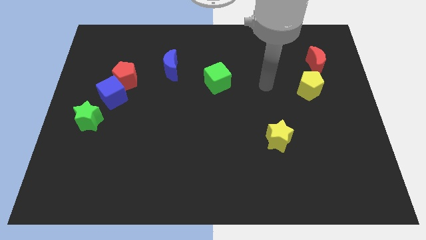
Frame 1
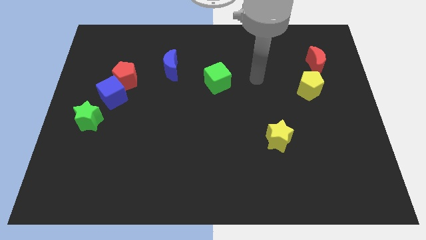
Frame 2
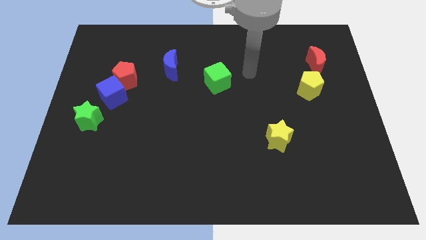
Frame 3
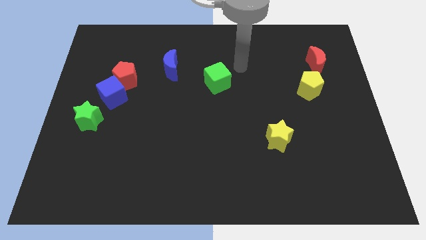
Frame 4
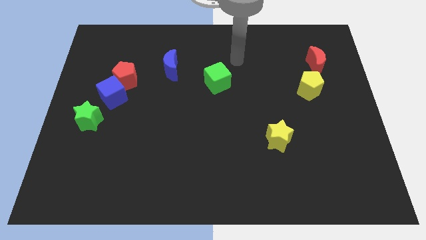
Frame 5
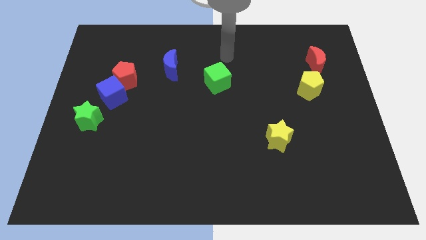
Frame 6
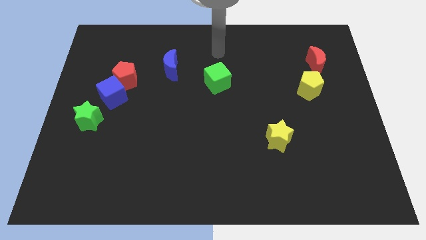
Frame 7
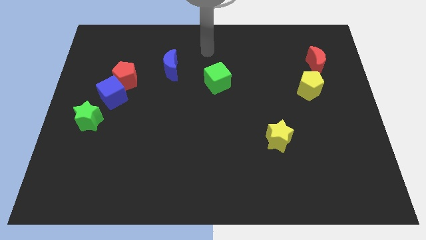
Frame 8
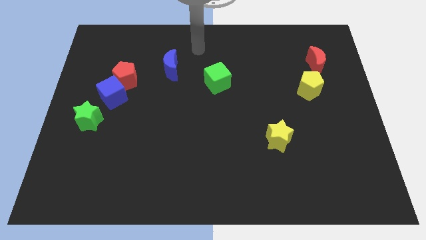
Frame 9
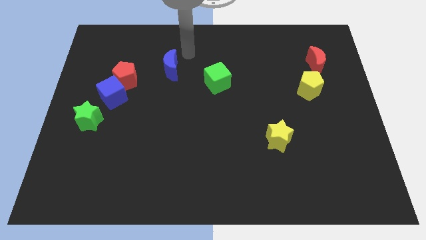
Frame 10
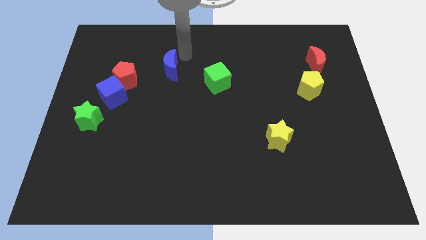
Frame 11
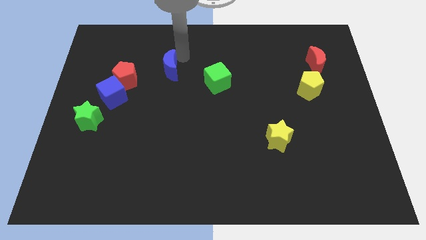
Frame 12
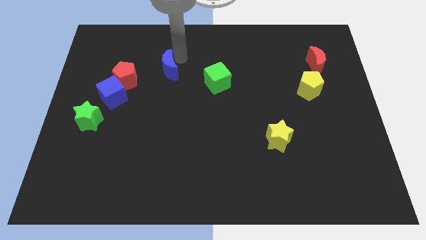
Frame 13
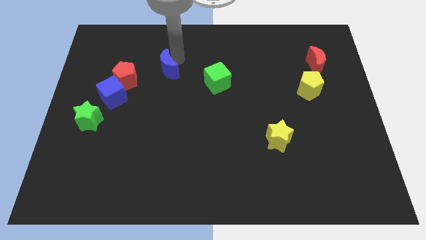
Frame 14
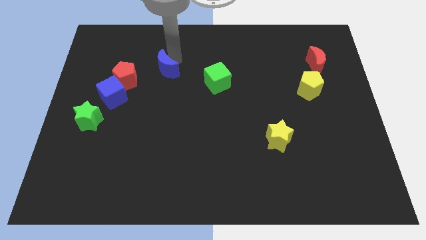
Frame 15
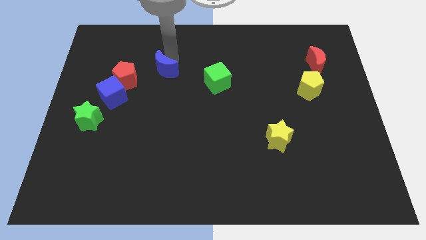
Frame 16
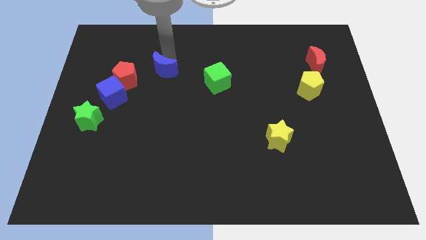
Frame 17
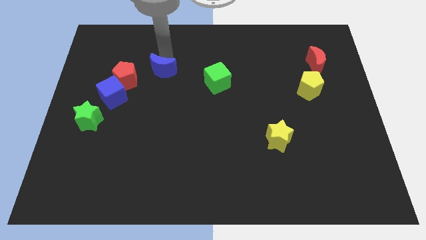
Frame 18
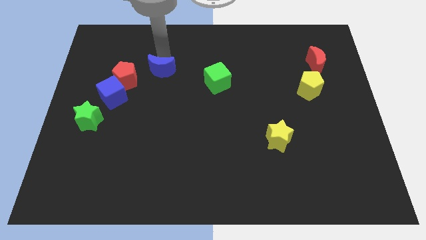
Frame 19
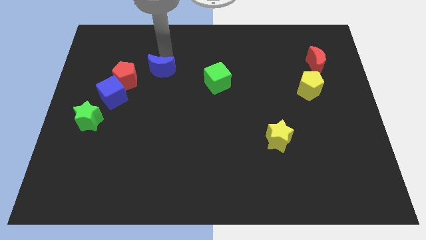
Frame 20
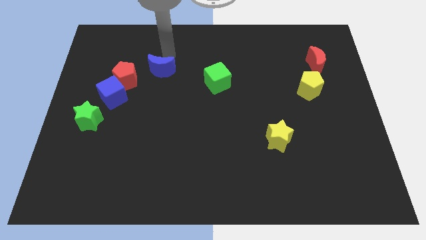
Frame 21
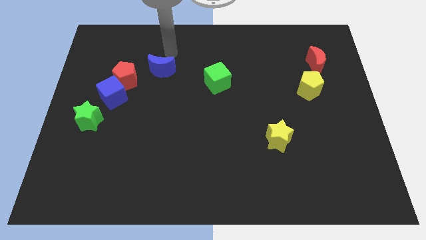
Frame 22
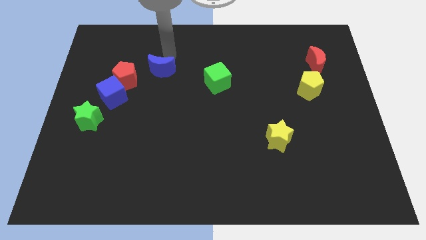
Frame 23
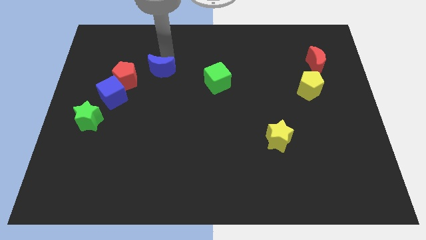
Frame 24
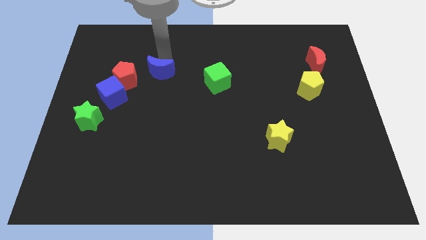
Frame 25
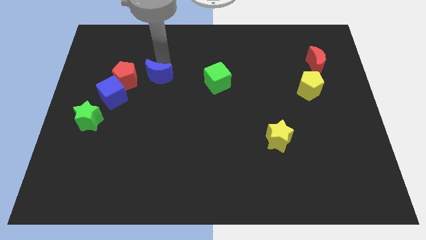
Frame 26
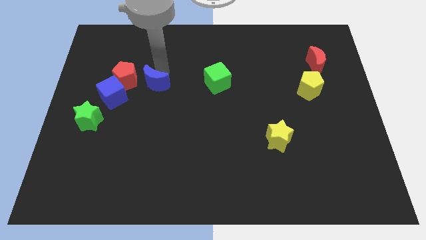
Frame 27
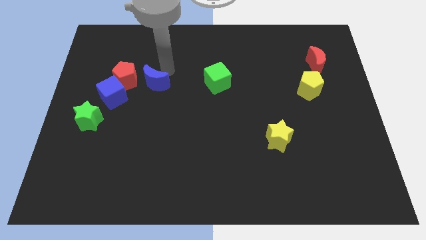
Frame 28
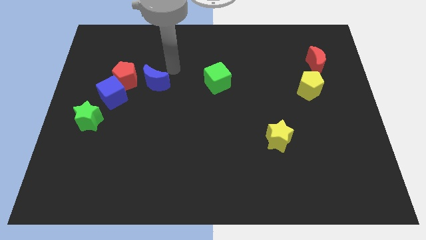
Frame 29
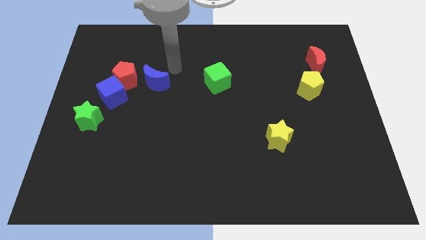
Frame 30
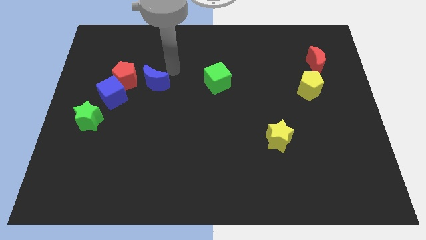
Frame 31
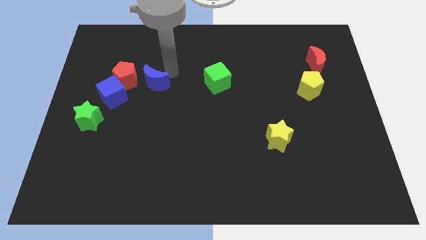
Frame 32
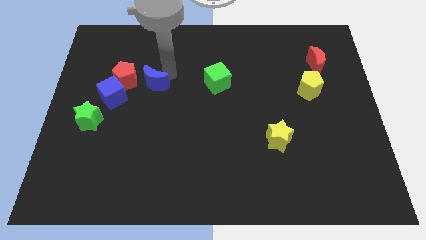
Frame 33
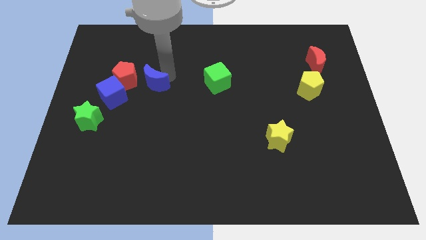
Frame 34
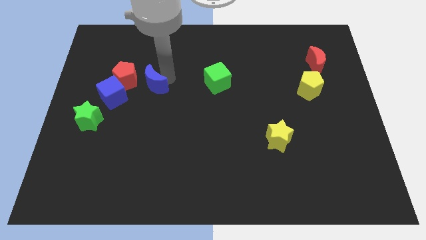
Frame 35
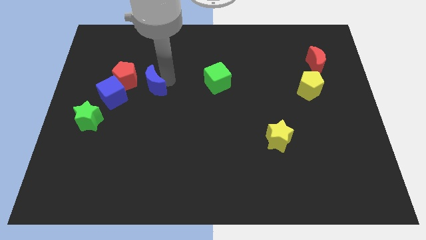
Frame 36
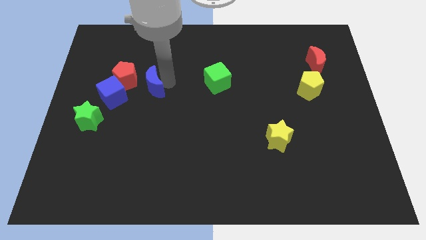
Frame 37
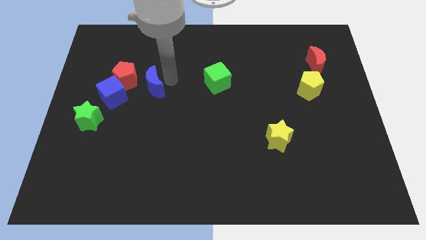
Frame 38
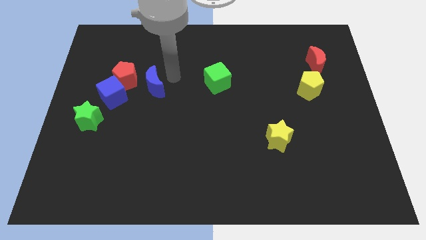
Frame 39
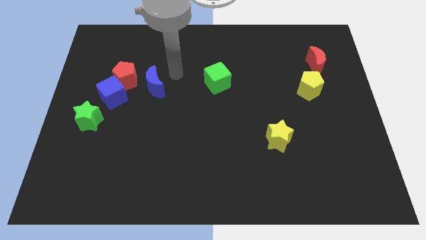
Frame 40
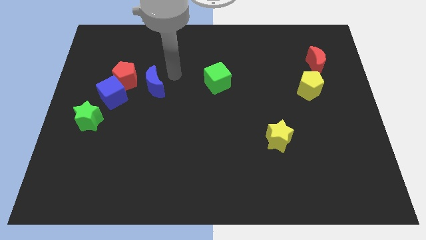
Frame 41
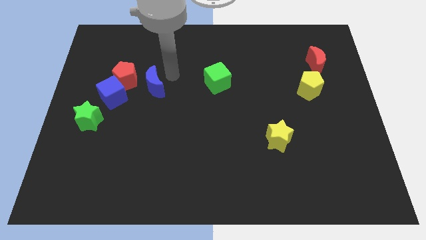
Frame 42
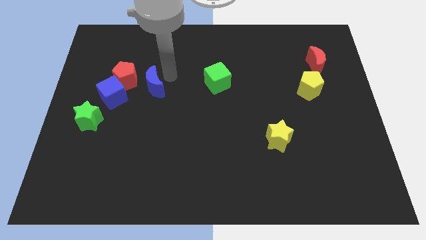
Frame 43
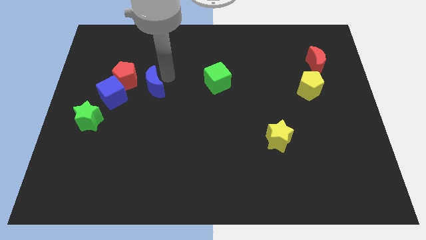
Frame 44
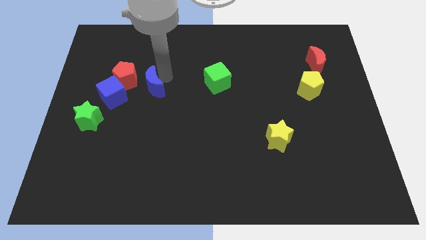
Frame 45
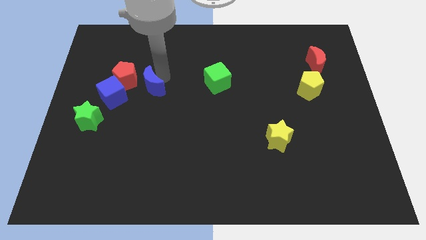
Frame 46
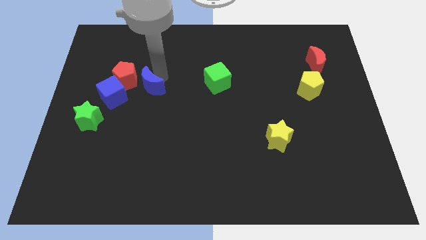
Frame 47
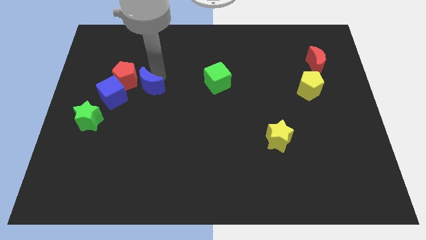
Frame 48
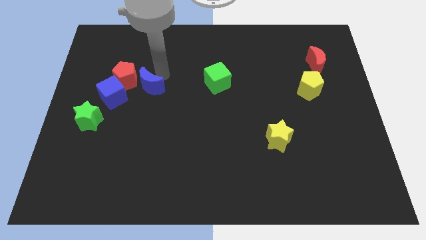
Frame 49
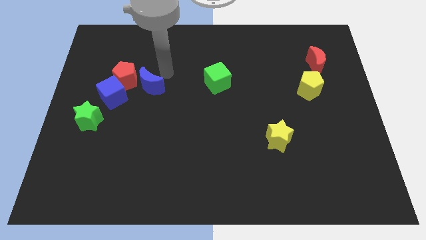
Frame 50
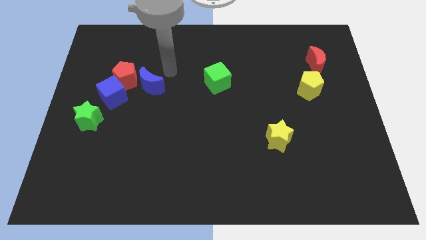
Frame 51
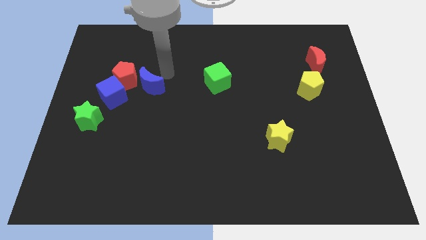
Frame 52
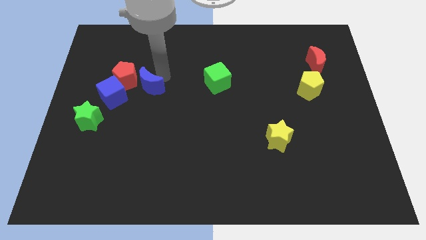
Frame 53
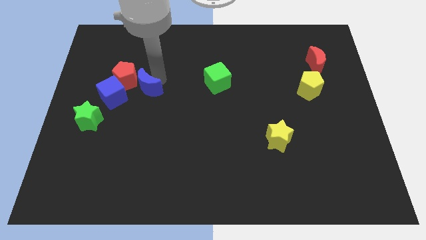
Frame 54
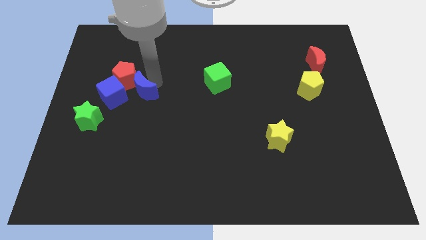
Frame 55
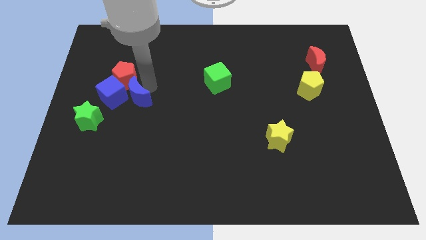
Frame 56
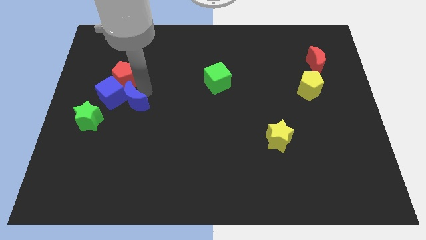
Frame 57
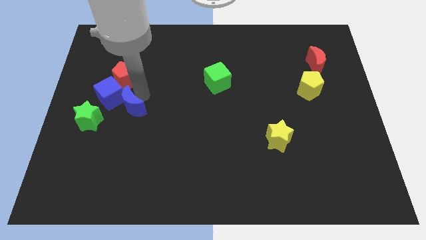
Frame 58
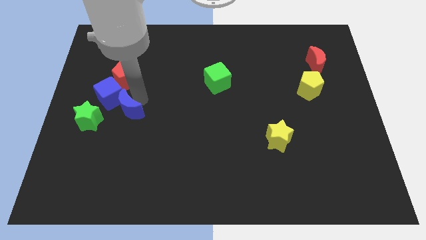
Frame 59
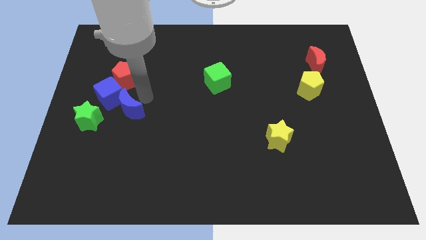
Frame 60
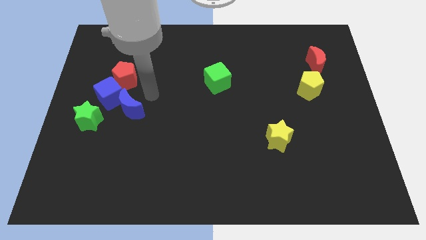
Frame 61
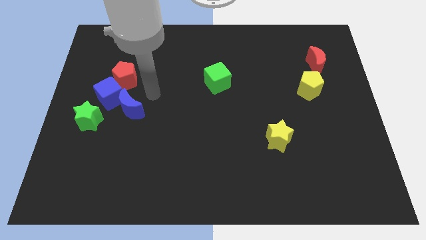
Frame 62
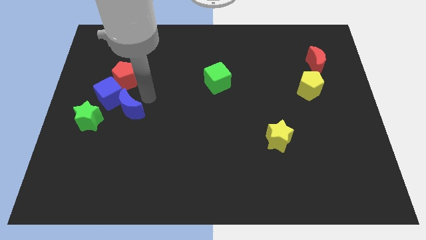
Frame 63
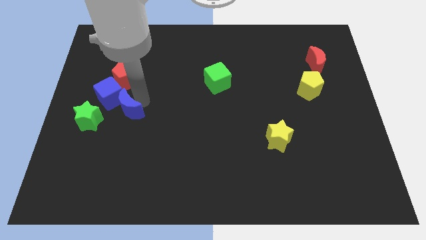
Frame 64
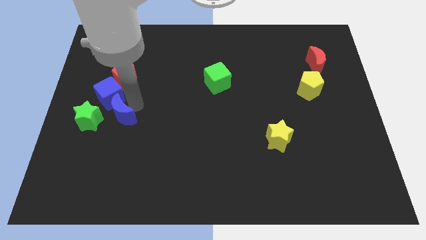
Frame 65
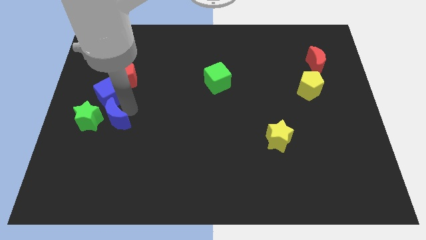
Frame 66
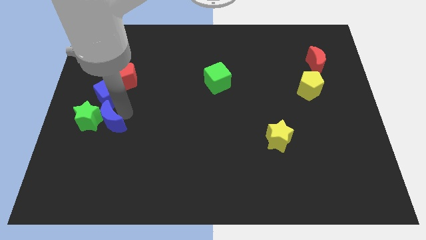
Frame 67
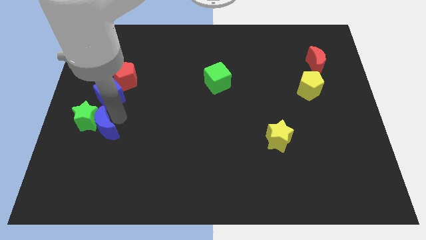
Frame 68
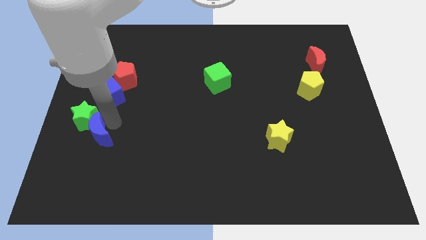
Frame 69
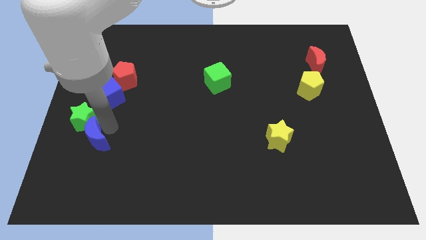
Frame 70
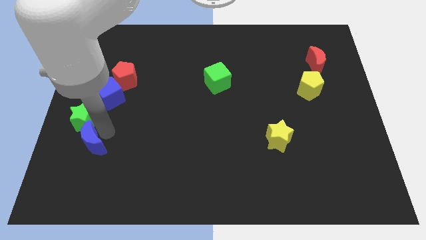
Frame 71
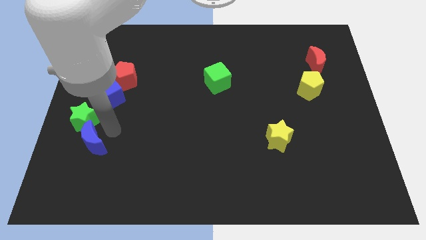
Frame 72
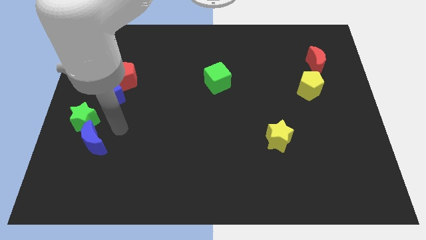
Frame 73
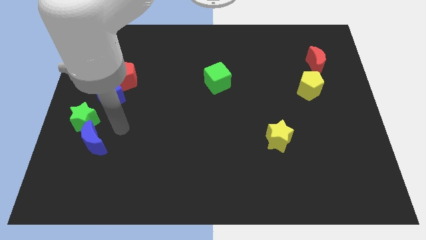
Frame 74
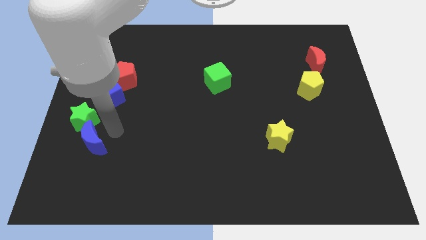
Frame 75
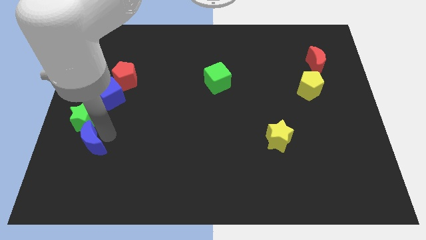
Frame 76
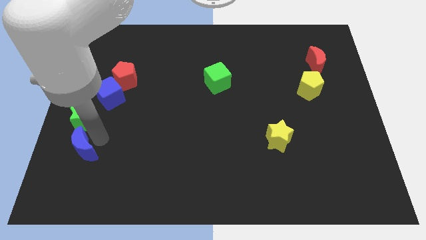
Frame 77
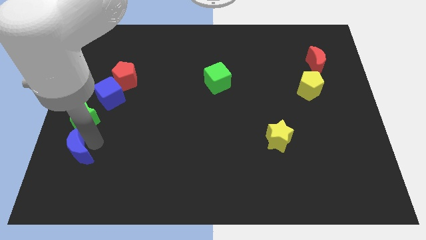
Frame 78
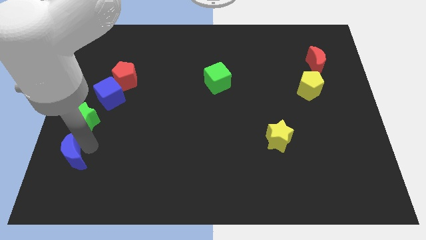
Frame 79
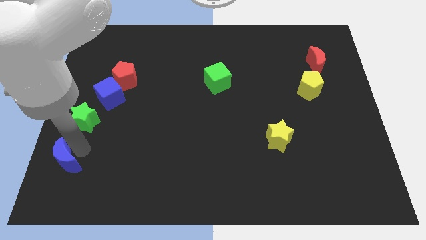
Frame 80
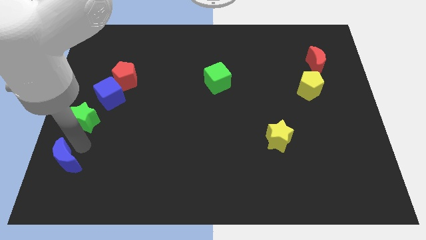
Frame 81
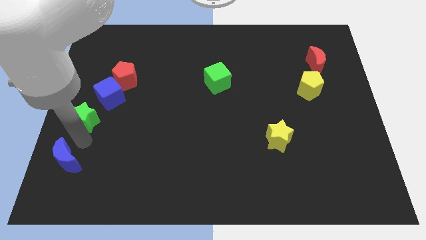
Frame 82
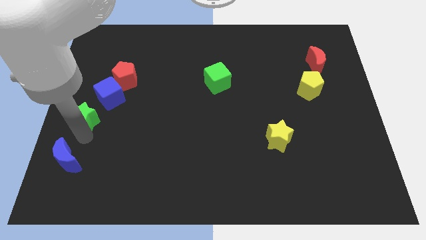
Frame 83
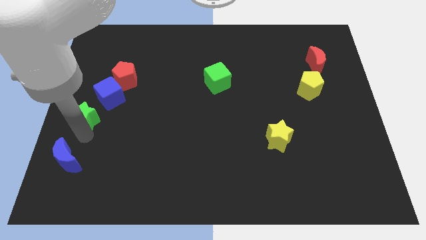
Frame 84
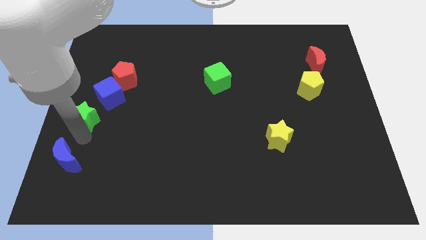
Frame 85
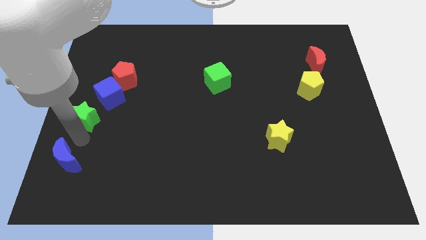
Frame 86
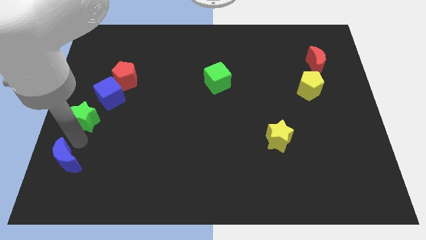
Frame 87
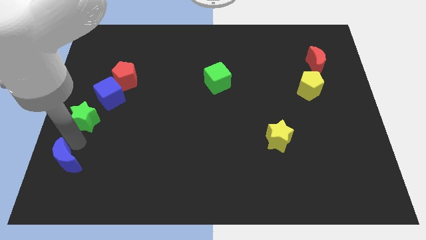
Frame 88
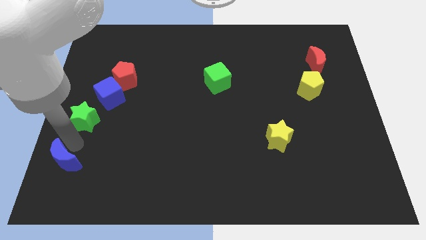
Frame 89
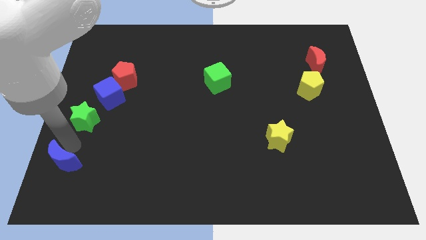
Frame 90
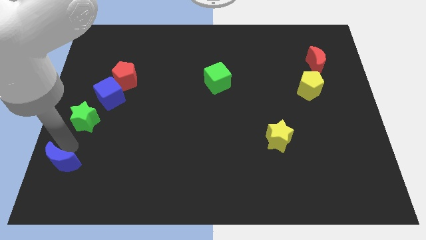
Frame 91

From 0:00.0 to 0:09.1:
move the blue moon to the bottom left corner
